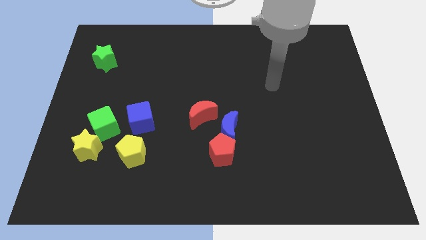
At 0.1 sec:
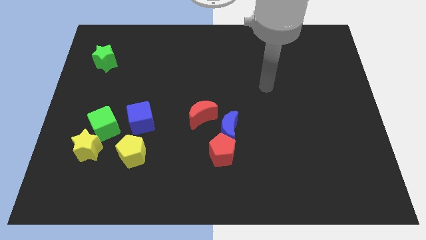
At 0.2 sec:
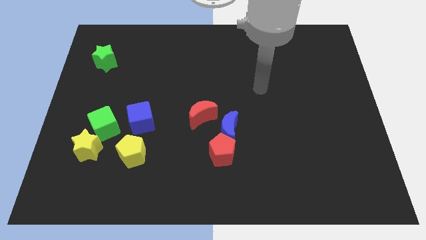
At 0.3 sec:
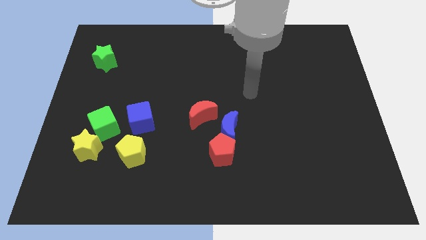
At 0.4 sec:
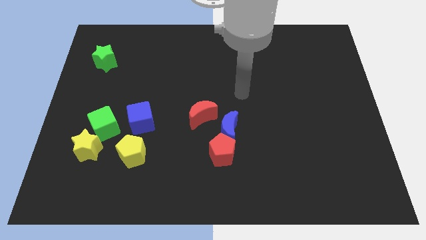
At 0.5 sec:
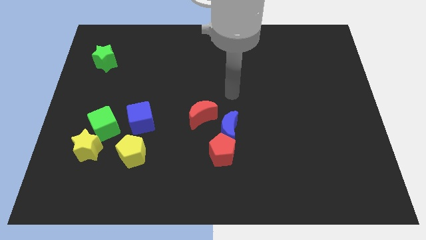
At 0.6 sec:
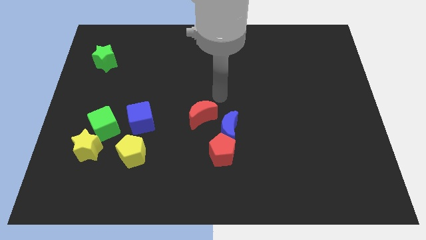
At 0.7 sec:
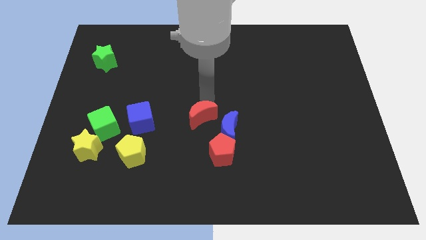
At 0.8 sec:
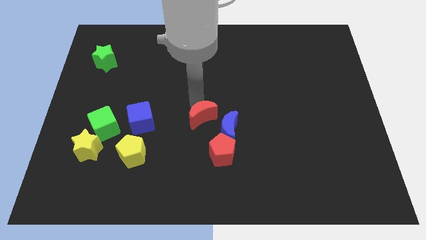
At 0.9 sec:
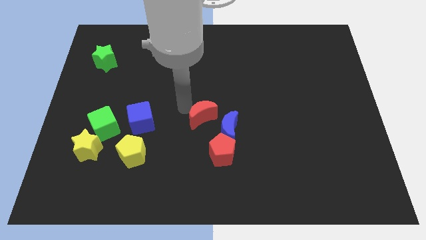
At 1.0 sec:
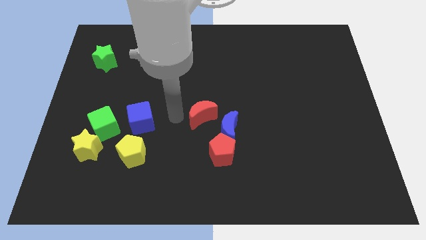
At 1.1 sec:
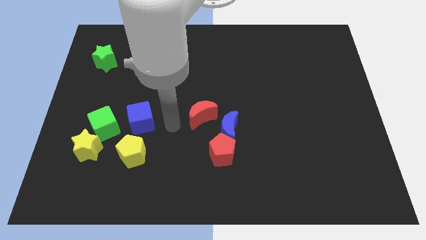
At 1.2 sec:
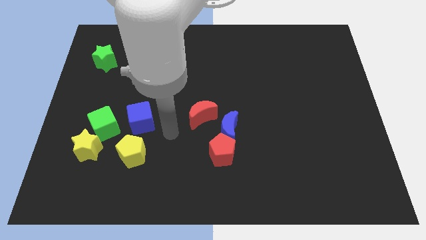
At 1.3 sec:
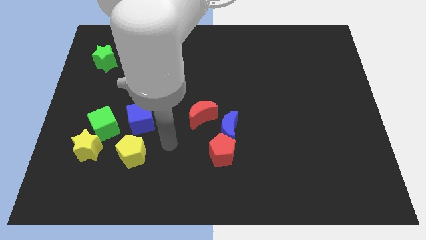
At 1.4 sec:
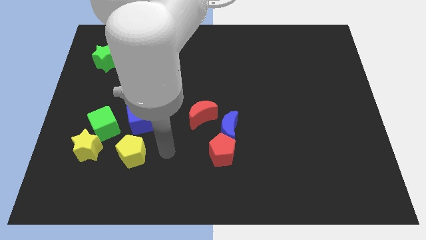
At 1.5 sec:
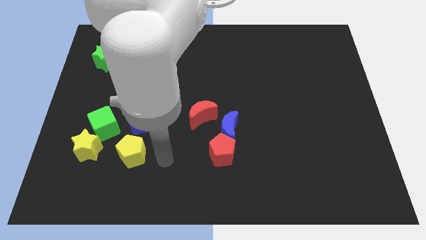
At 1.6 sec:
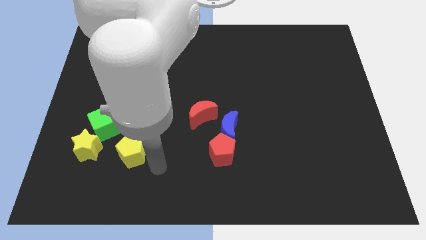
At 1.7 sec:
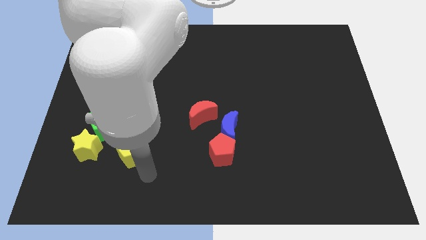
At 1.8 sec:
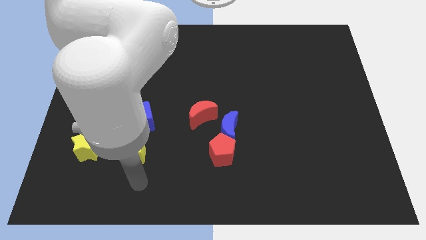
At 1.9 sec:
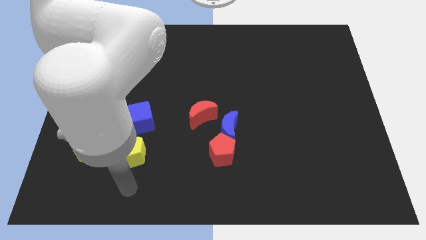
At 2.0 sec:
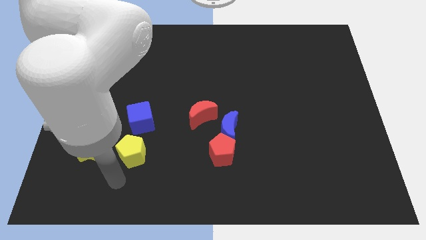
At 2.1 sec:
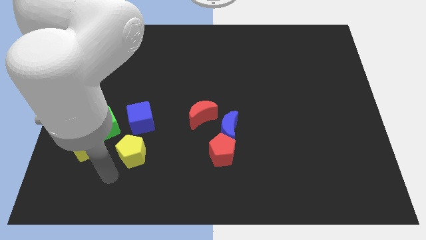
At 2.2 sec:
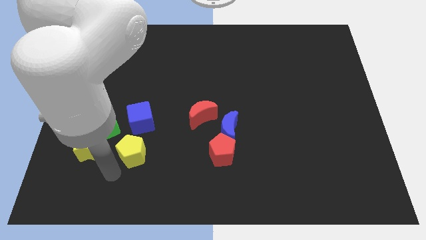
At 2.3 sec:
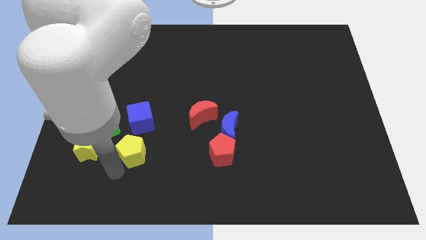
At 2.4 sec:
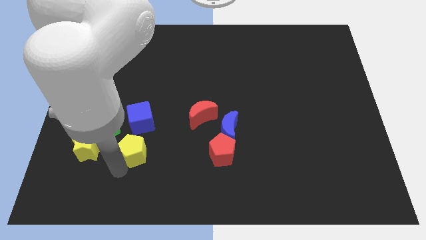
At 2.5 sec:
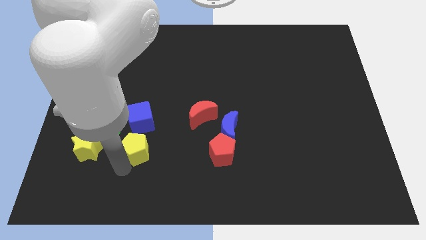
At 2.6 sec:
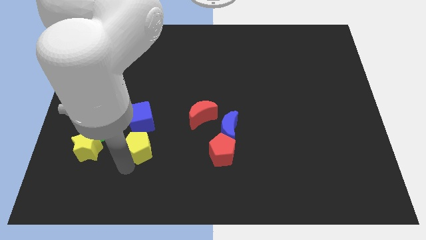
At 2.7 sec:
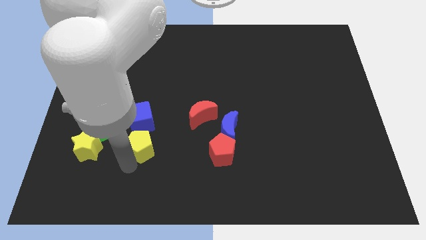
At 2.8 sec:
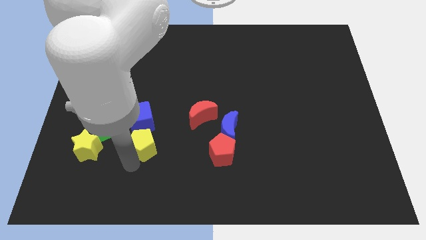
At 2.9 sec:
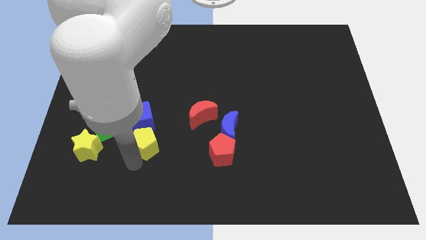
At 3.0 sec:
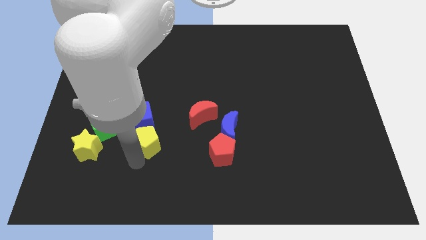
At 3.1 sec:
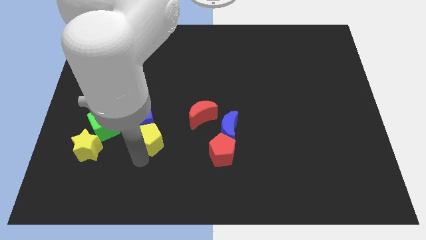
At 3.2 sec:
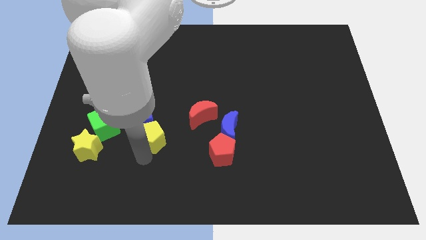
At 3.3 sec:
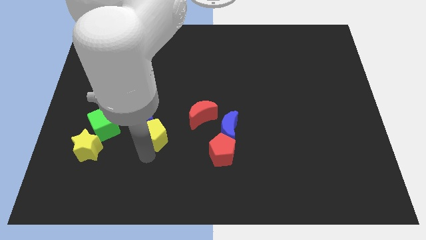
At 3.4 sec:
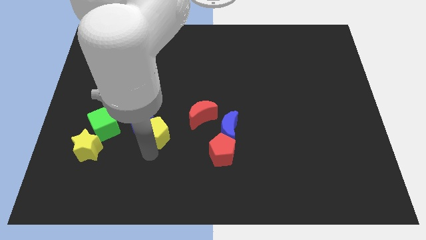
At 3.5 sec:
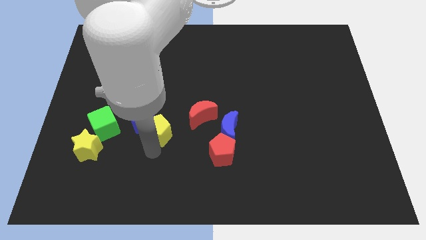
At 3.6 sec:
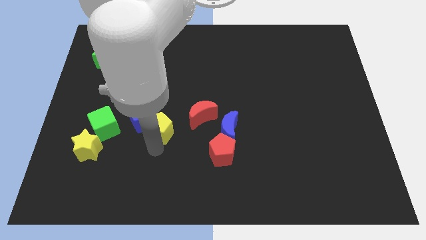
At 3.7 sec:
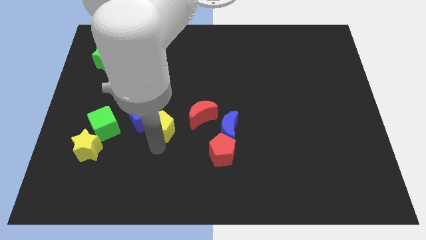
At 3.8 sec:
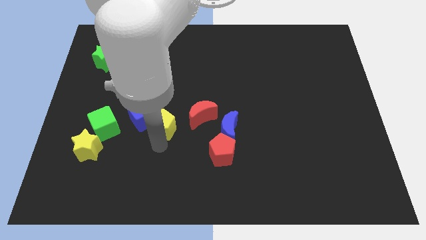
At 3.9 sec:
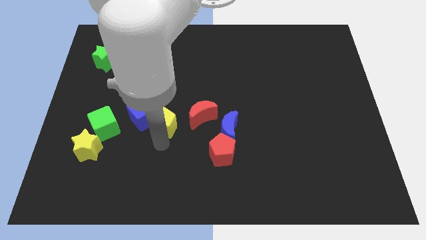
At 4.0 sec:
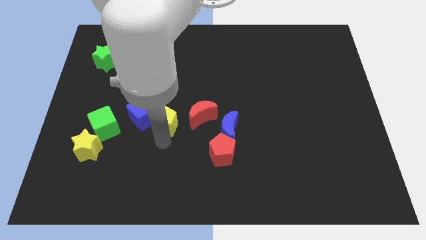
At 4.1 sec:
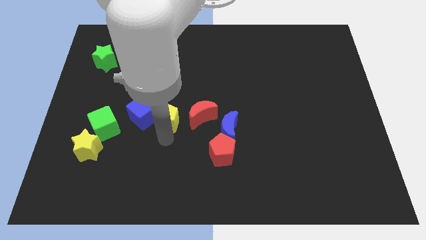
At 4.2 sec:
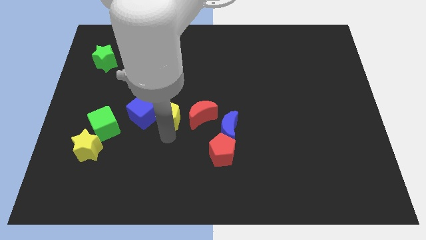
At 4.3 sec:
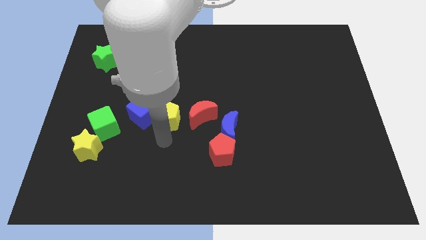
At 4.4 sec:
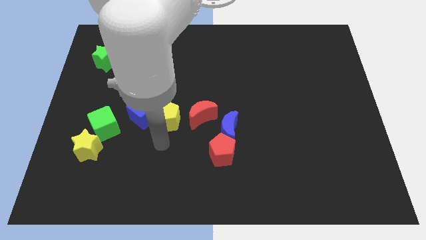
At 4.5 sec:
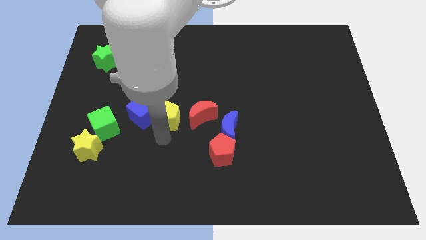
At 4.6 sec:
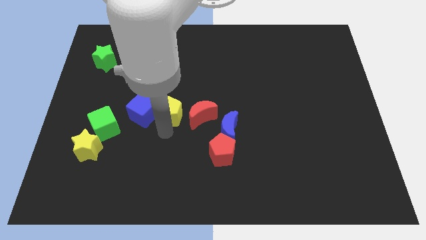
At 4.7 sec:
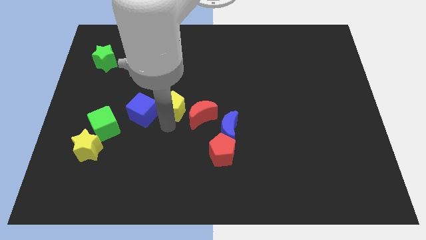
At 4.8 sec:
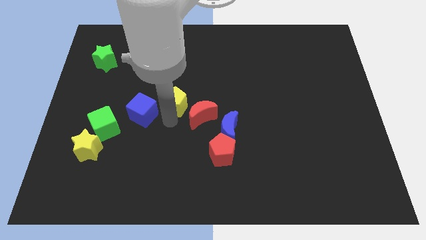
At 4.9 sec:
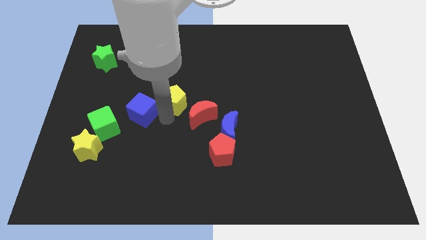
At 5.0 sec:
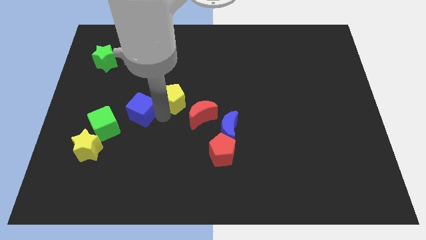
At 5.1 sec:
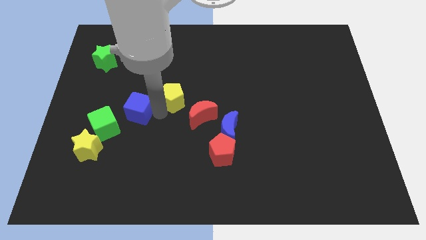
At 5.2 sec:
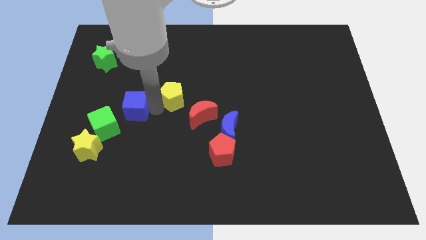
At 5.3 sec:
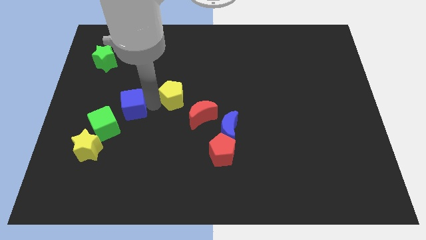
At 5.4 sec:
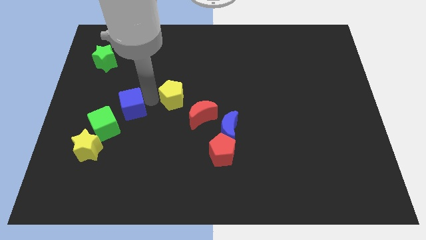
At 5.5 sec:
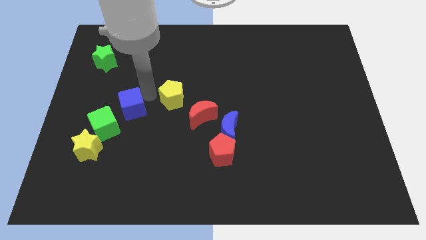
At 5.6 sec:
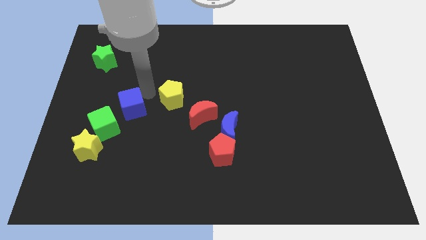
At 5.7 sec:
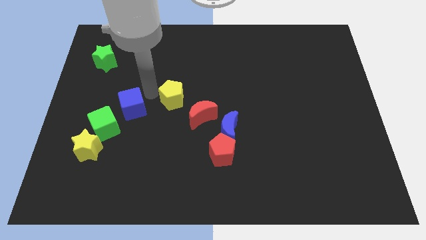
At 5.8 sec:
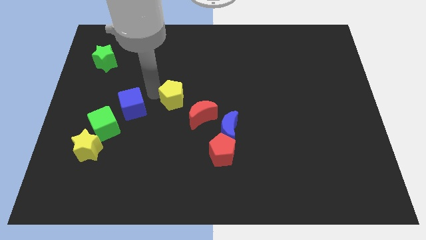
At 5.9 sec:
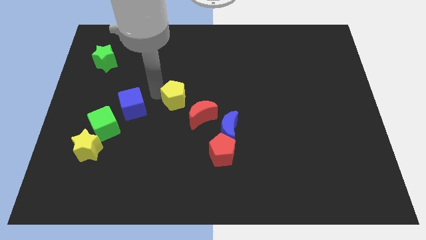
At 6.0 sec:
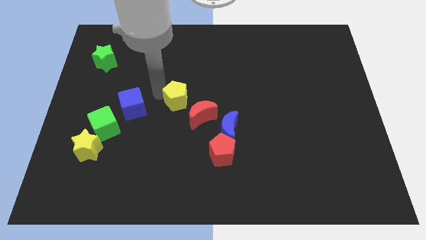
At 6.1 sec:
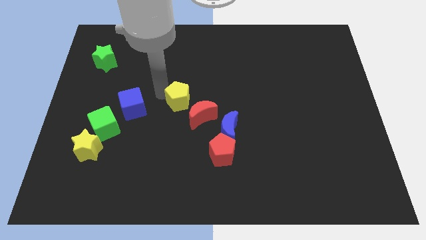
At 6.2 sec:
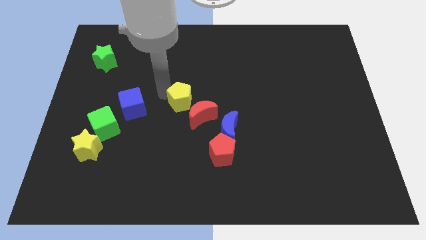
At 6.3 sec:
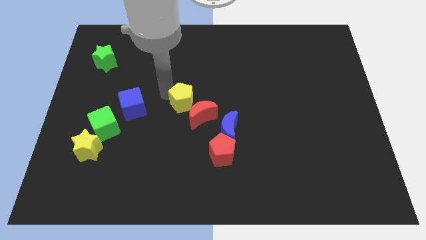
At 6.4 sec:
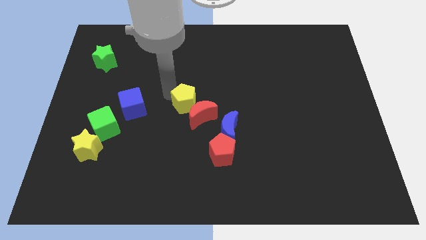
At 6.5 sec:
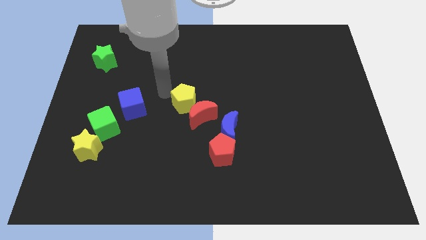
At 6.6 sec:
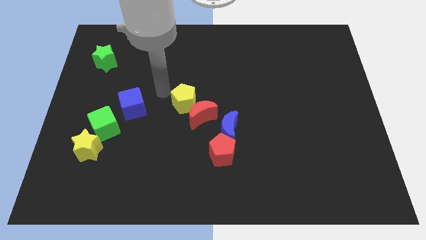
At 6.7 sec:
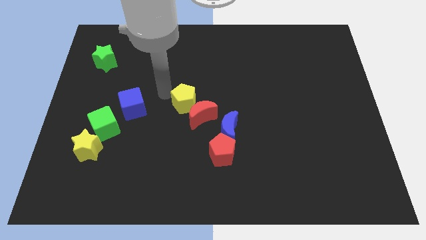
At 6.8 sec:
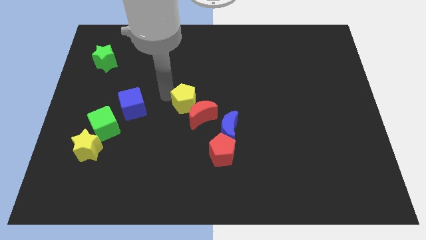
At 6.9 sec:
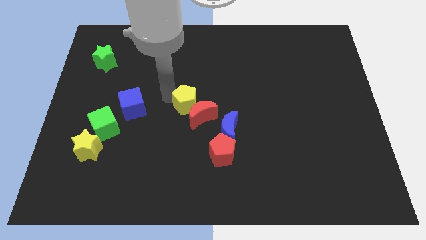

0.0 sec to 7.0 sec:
put the yellow pentagon to the top left side of the blue moon

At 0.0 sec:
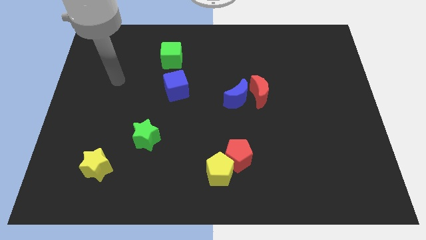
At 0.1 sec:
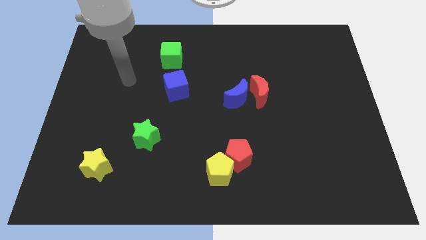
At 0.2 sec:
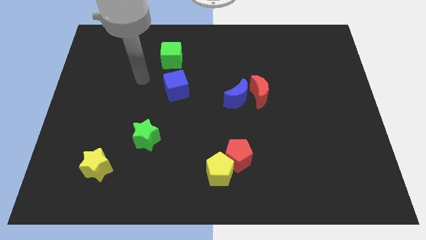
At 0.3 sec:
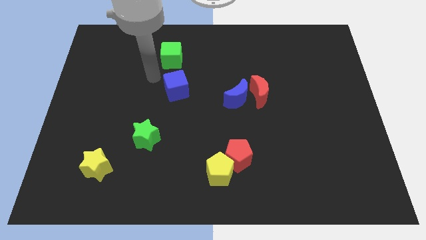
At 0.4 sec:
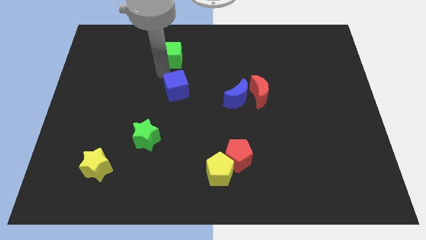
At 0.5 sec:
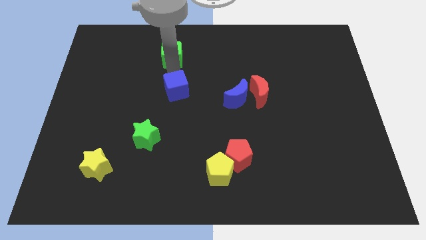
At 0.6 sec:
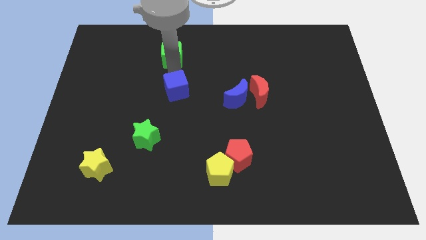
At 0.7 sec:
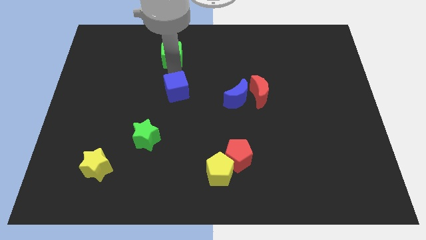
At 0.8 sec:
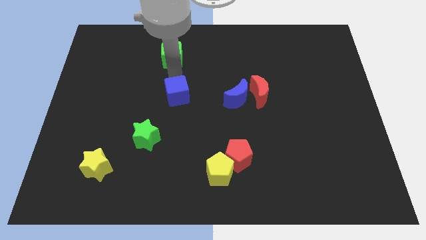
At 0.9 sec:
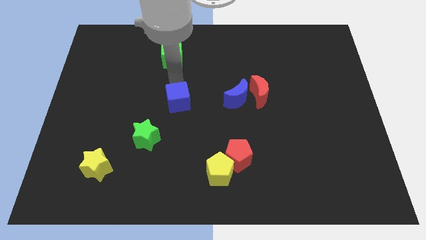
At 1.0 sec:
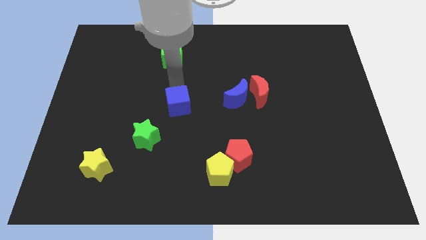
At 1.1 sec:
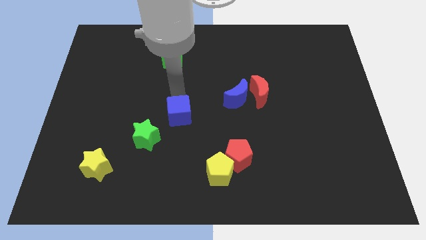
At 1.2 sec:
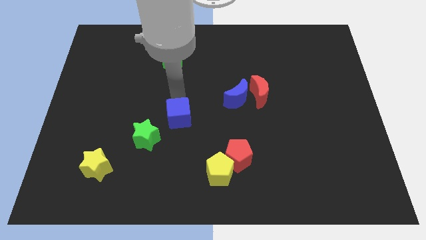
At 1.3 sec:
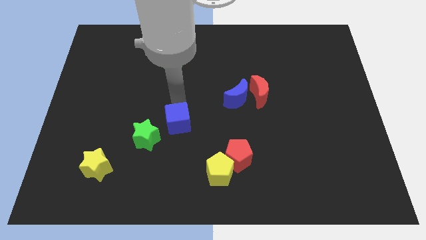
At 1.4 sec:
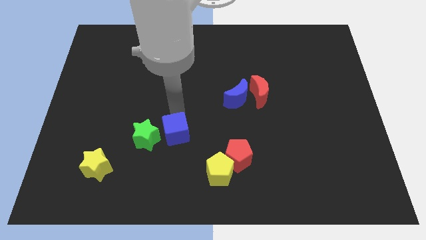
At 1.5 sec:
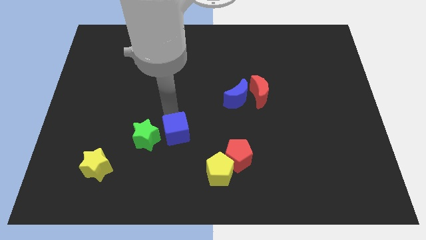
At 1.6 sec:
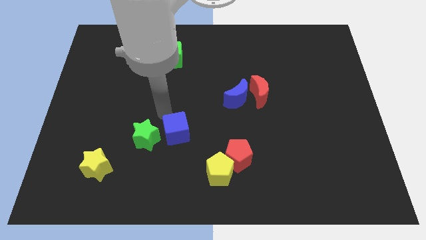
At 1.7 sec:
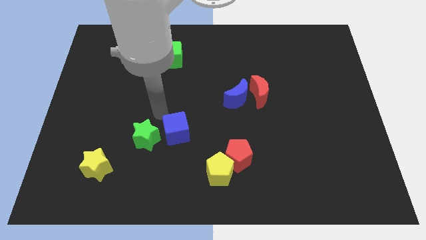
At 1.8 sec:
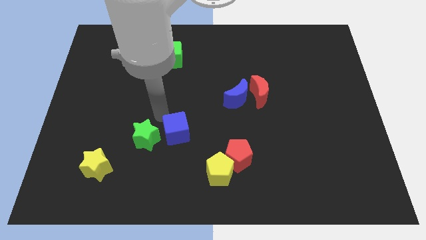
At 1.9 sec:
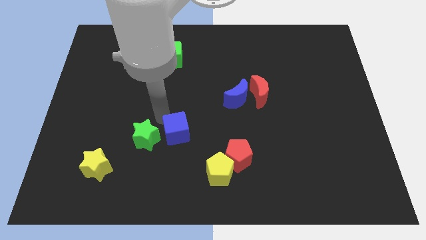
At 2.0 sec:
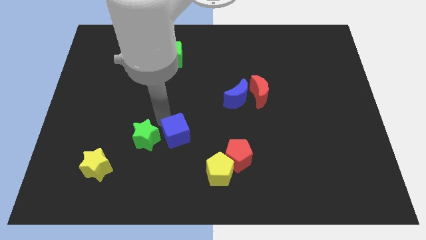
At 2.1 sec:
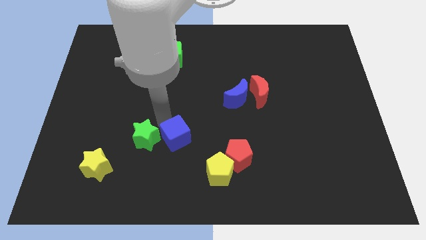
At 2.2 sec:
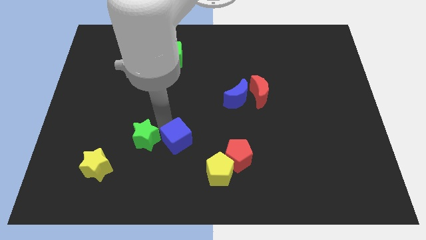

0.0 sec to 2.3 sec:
put the blue cube to the top left side of the yellow pentagon
